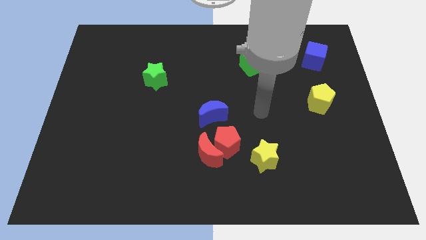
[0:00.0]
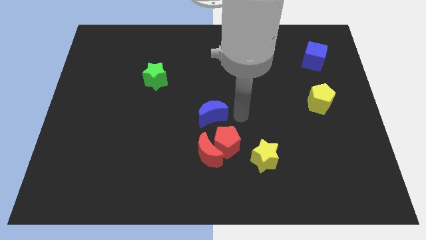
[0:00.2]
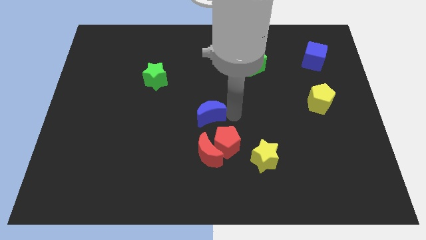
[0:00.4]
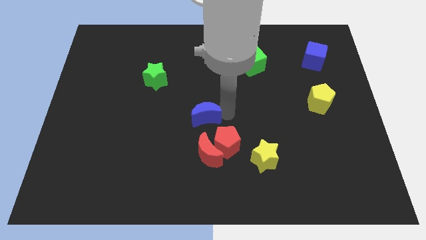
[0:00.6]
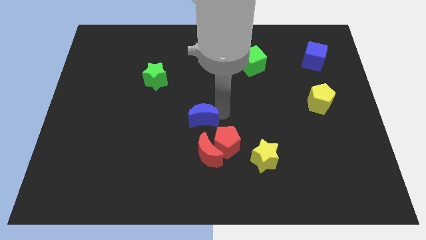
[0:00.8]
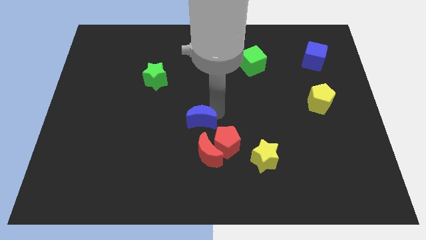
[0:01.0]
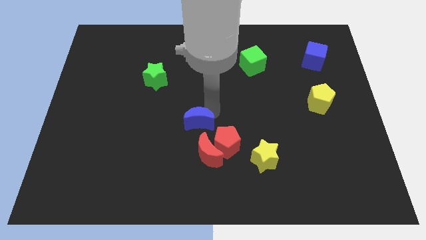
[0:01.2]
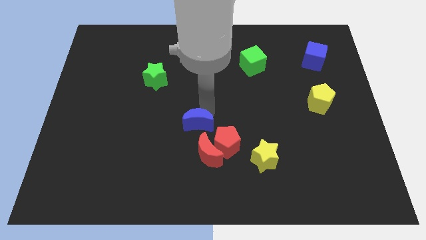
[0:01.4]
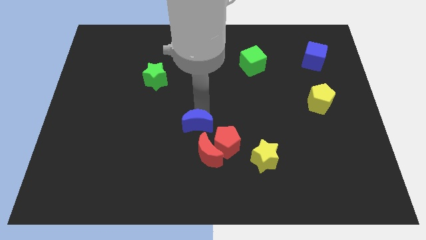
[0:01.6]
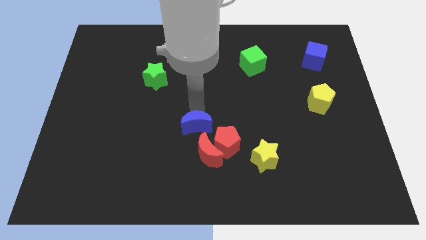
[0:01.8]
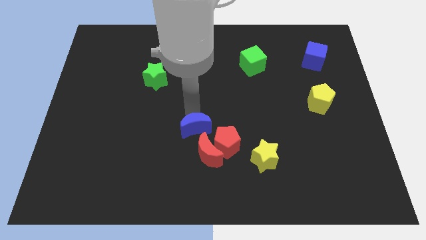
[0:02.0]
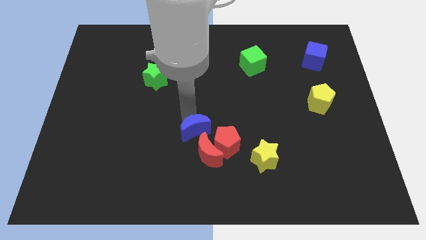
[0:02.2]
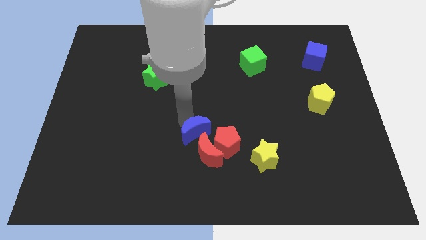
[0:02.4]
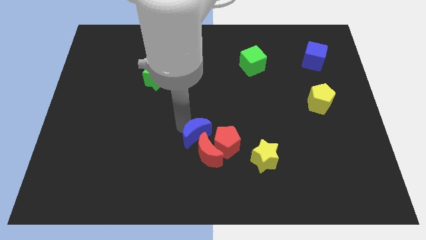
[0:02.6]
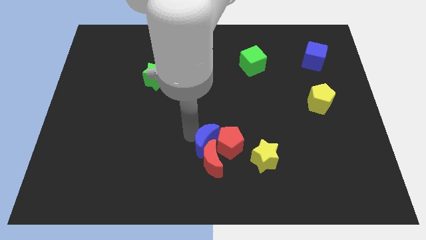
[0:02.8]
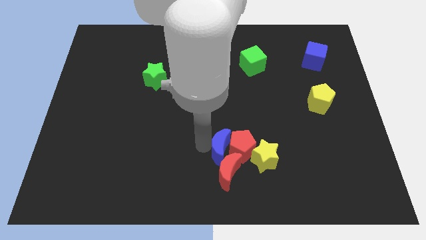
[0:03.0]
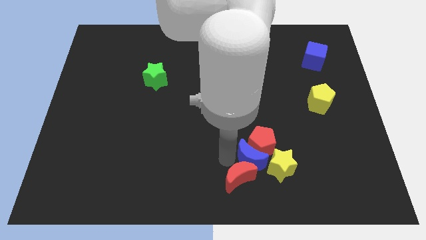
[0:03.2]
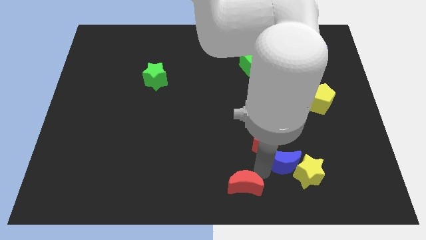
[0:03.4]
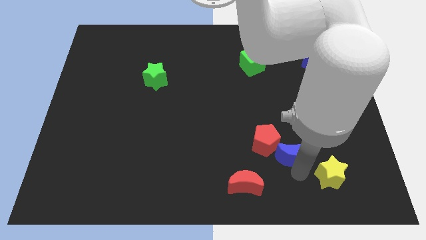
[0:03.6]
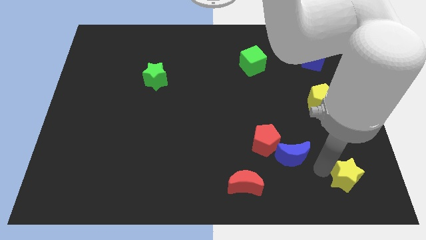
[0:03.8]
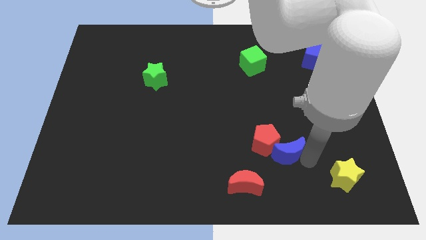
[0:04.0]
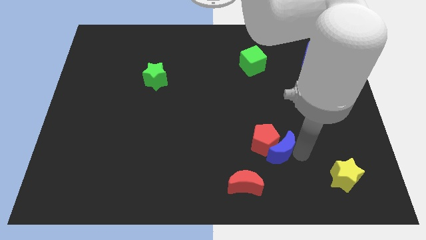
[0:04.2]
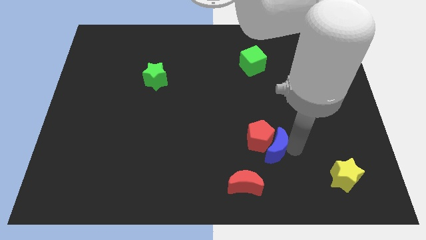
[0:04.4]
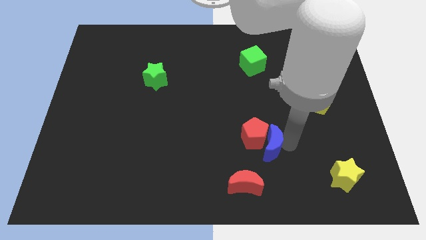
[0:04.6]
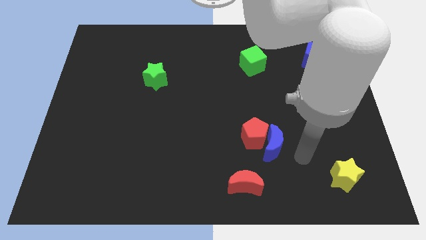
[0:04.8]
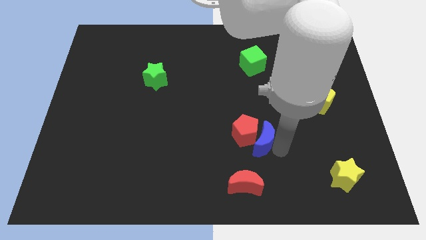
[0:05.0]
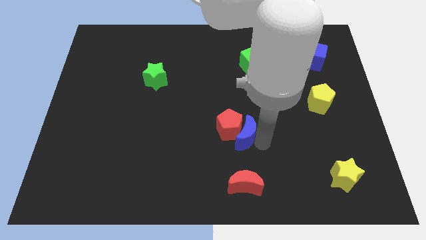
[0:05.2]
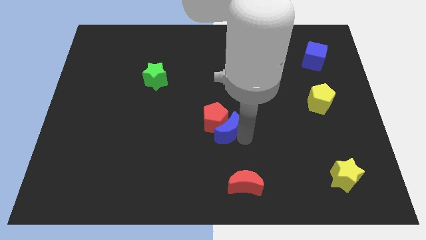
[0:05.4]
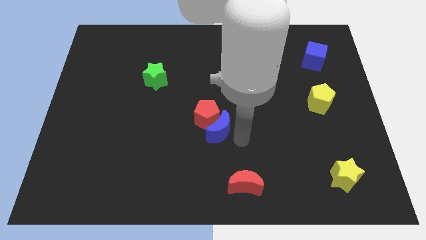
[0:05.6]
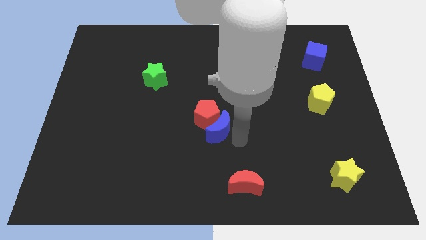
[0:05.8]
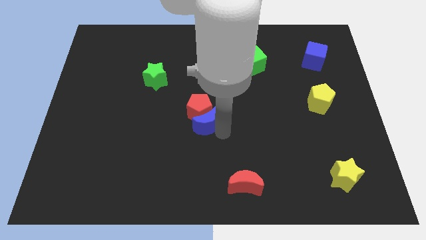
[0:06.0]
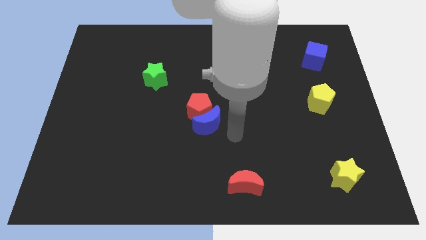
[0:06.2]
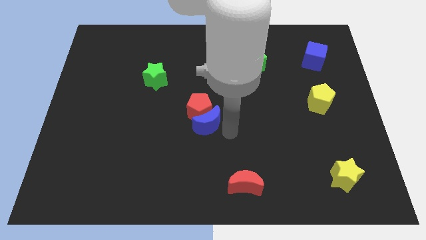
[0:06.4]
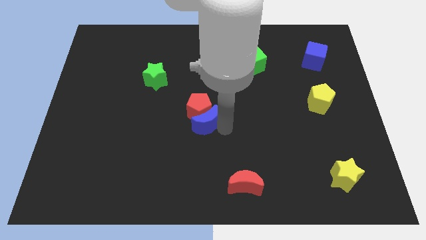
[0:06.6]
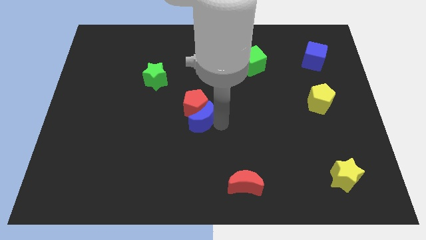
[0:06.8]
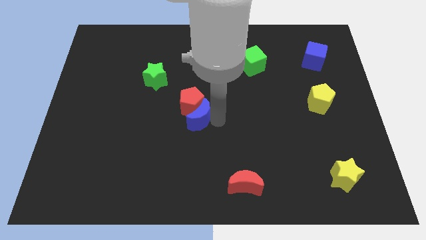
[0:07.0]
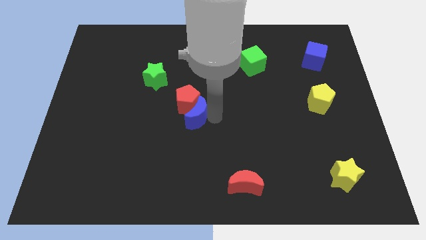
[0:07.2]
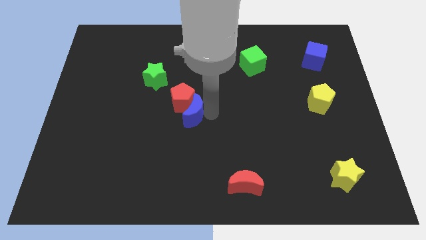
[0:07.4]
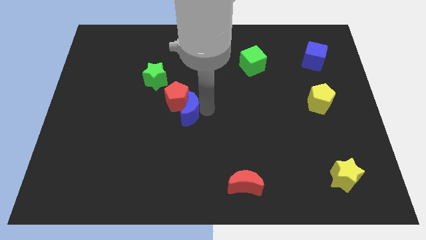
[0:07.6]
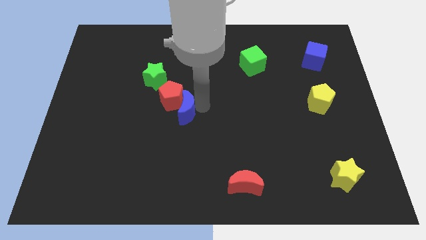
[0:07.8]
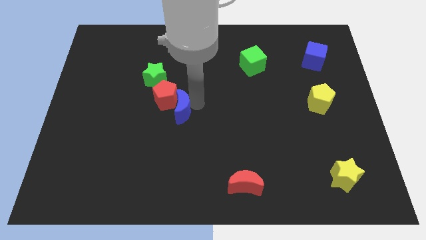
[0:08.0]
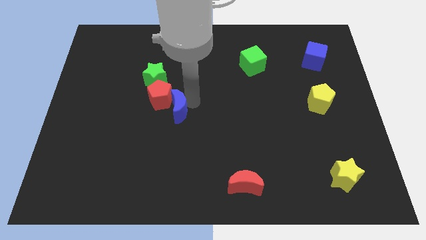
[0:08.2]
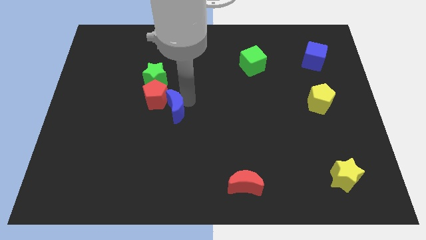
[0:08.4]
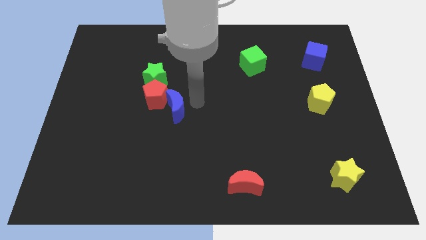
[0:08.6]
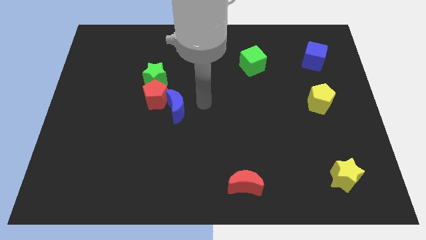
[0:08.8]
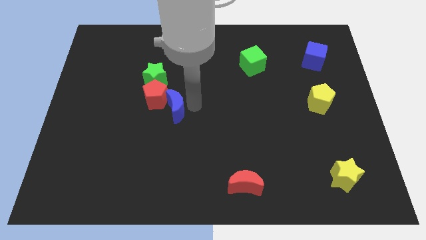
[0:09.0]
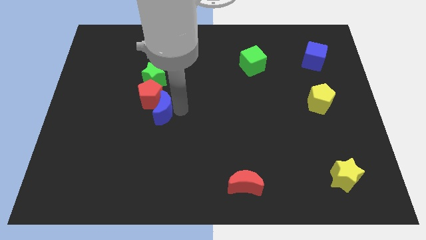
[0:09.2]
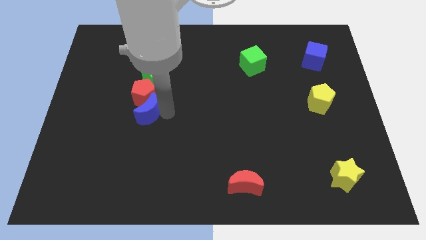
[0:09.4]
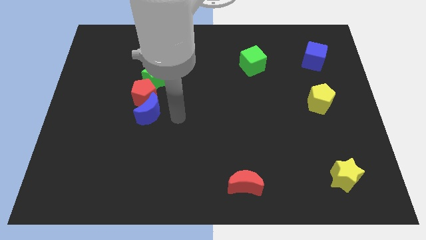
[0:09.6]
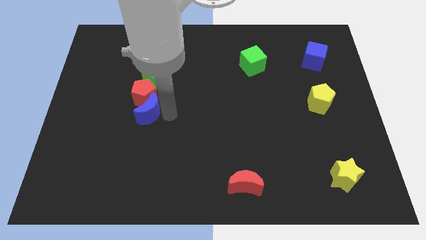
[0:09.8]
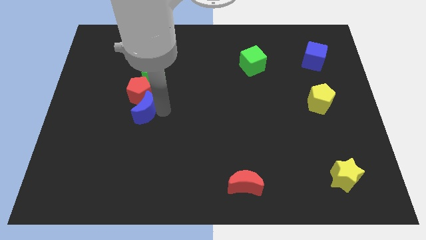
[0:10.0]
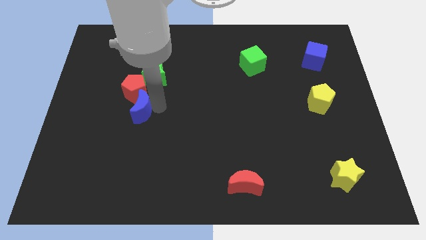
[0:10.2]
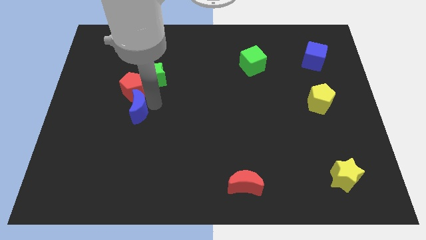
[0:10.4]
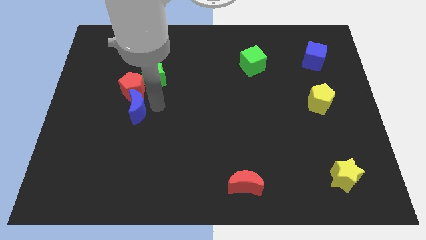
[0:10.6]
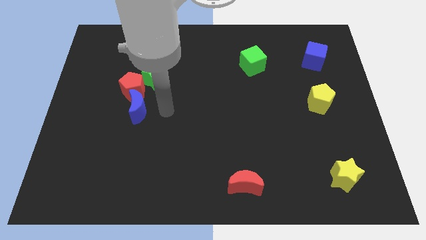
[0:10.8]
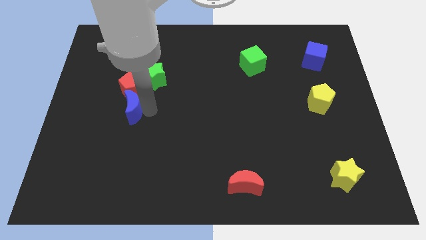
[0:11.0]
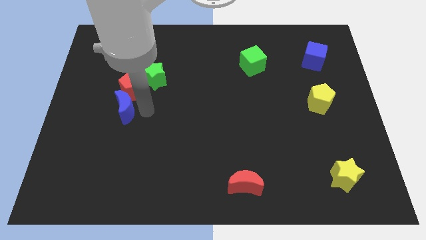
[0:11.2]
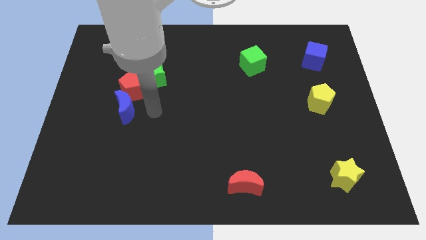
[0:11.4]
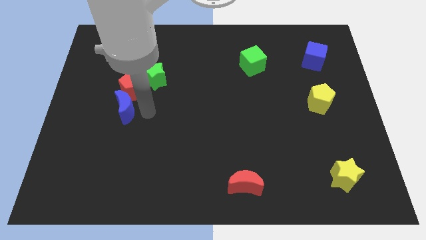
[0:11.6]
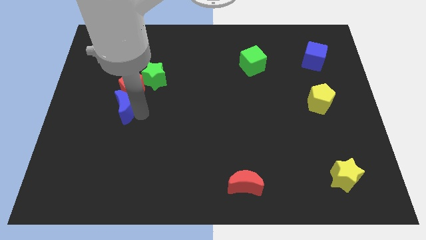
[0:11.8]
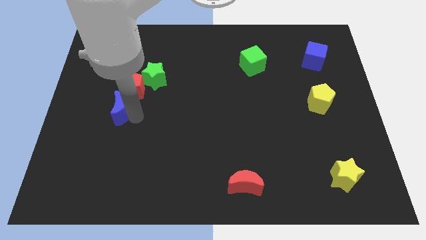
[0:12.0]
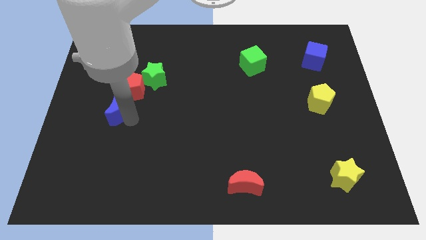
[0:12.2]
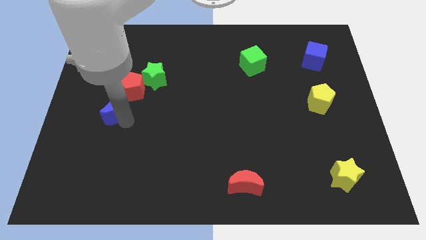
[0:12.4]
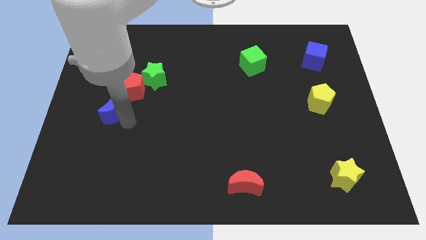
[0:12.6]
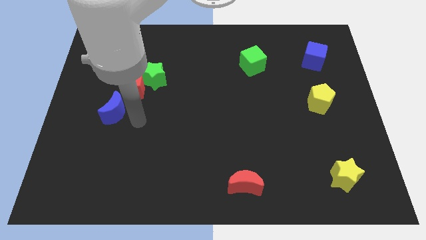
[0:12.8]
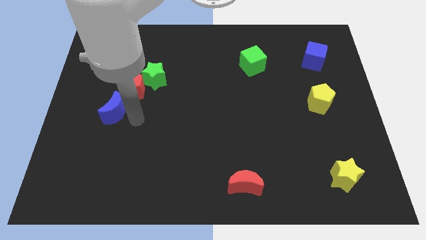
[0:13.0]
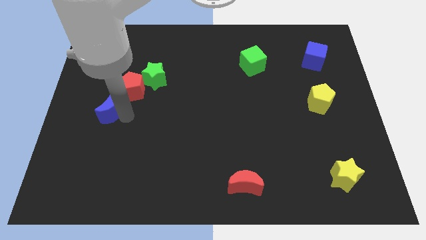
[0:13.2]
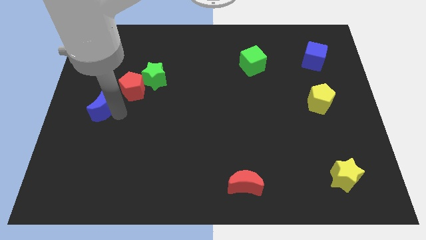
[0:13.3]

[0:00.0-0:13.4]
slide the blue moon to the left side of the board

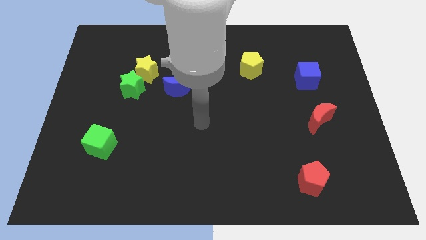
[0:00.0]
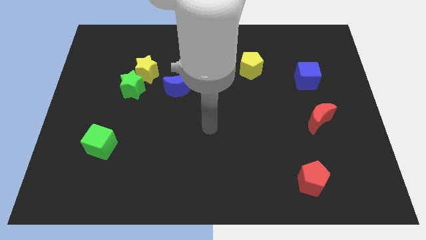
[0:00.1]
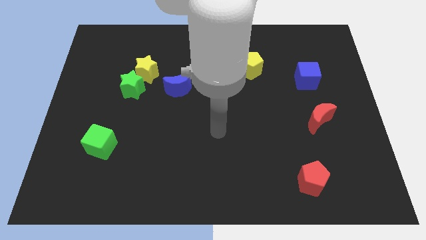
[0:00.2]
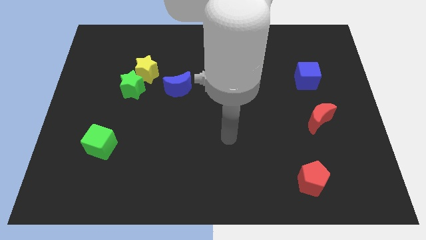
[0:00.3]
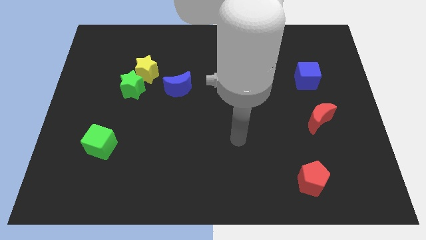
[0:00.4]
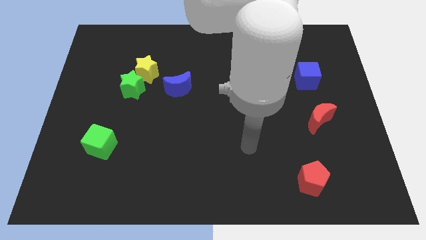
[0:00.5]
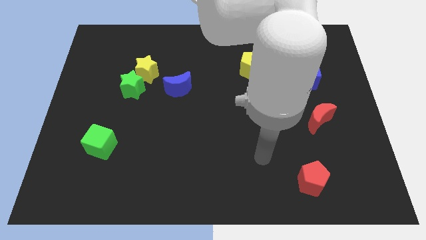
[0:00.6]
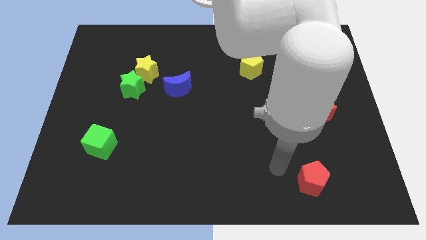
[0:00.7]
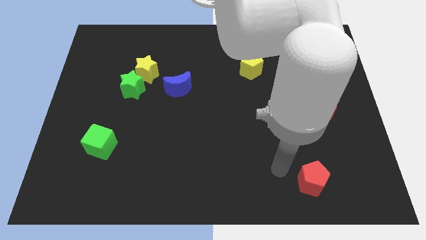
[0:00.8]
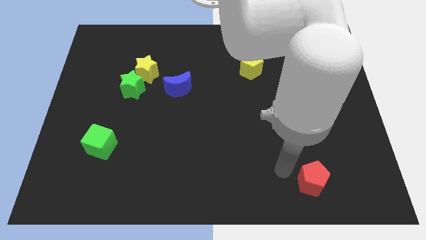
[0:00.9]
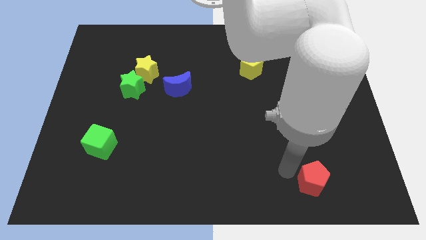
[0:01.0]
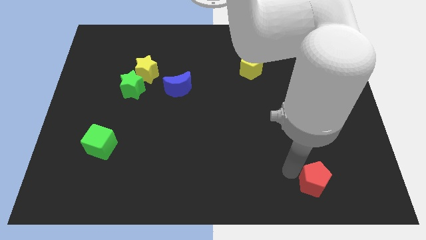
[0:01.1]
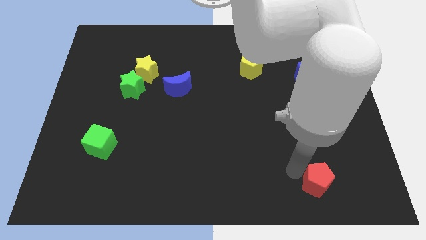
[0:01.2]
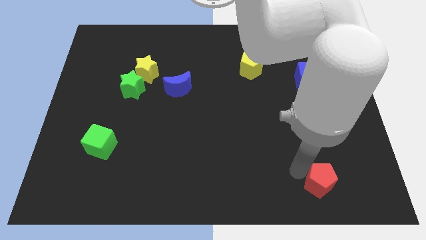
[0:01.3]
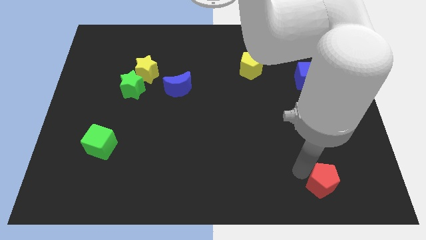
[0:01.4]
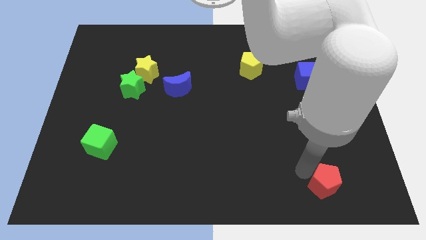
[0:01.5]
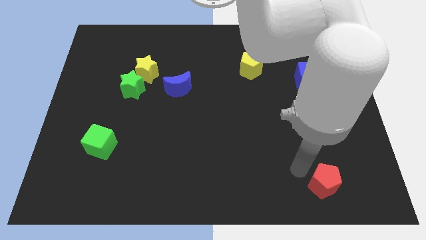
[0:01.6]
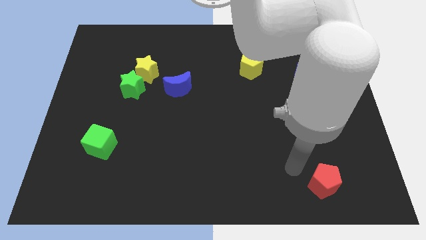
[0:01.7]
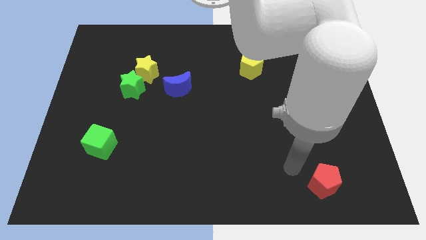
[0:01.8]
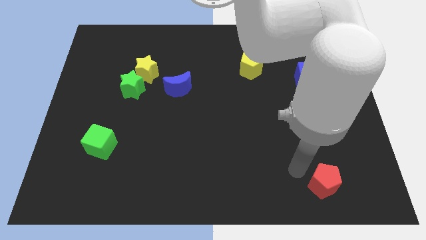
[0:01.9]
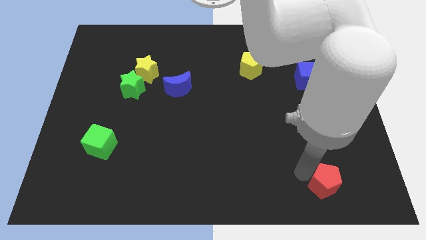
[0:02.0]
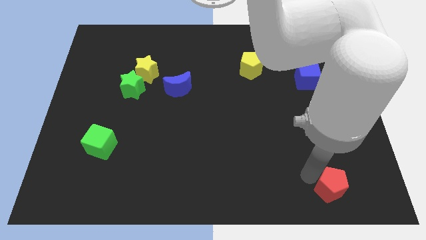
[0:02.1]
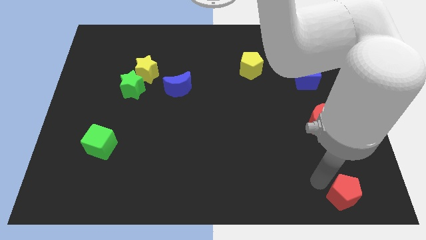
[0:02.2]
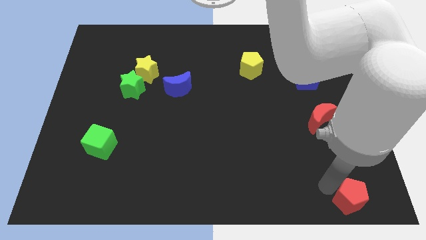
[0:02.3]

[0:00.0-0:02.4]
slide the red pentagon to the bottom right corner
